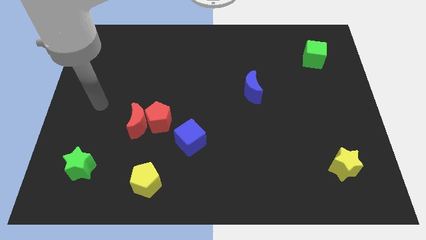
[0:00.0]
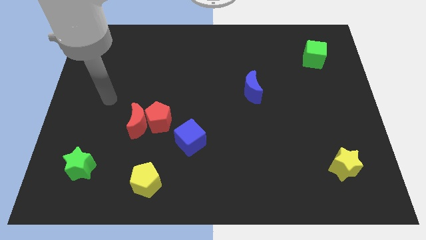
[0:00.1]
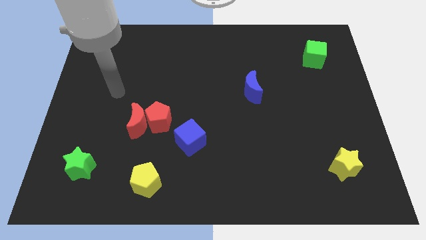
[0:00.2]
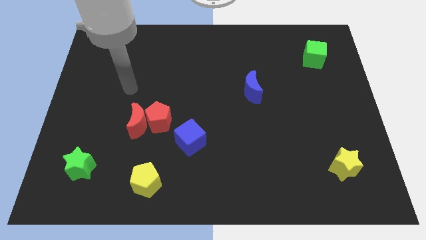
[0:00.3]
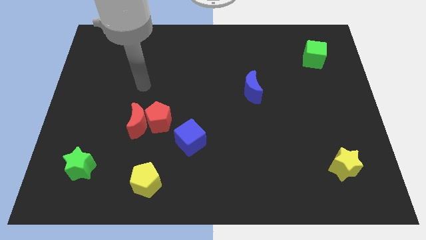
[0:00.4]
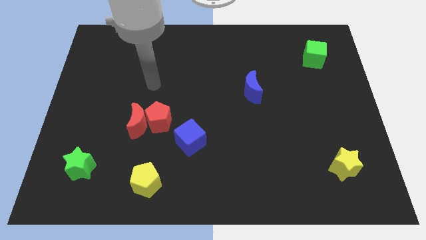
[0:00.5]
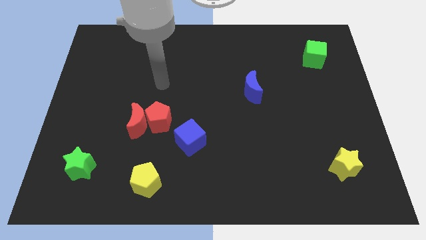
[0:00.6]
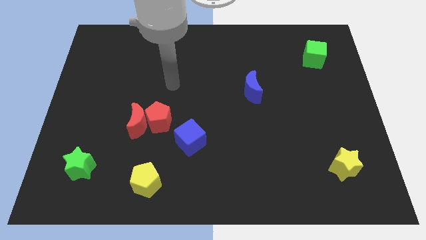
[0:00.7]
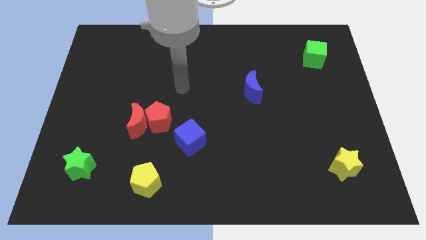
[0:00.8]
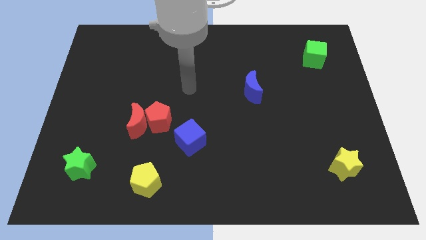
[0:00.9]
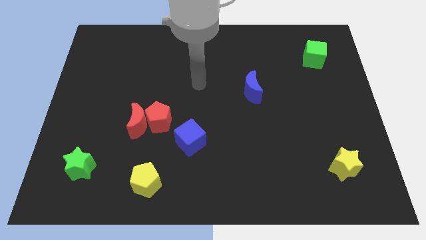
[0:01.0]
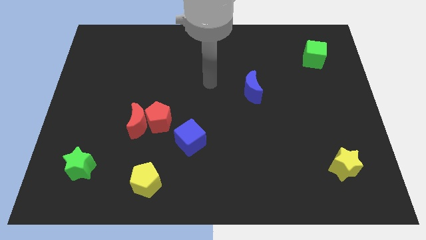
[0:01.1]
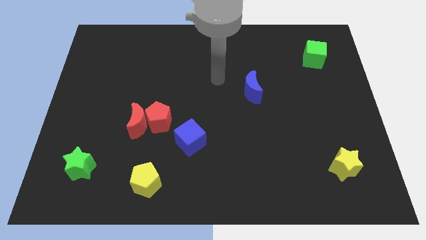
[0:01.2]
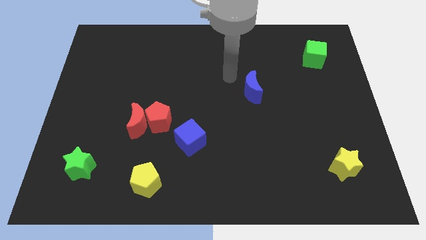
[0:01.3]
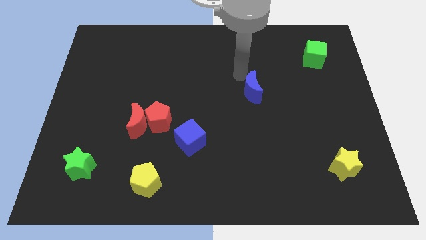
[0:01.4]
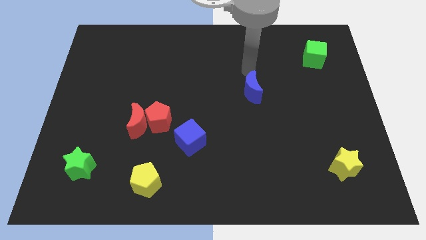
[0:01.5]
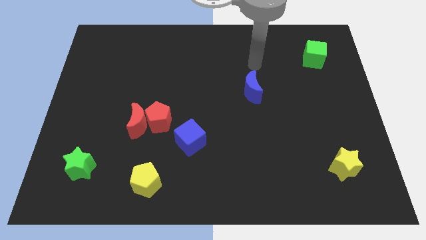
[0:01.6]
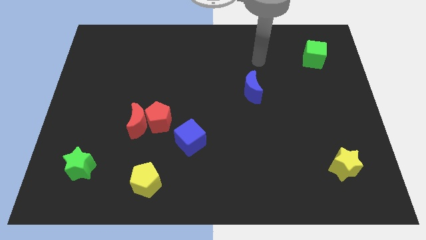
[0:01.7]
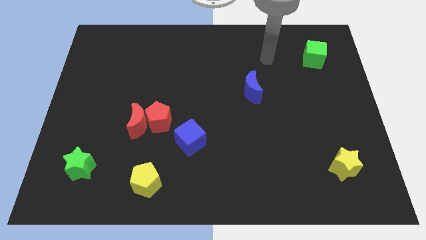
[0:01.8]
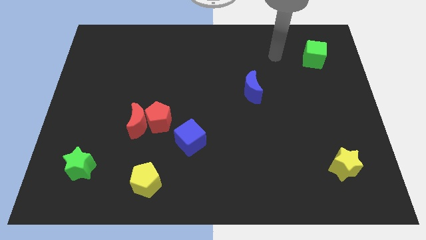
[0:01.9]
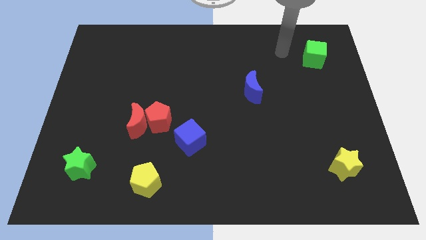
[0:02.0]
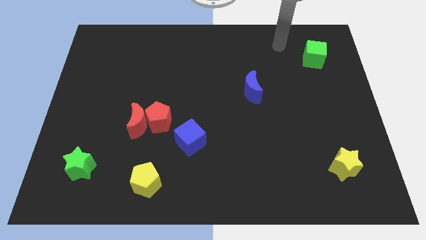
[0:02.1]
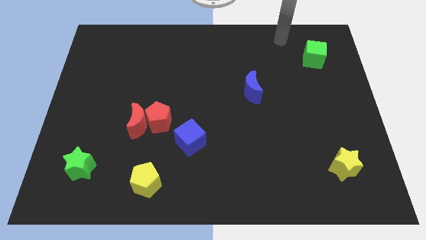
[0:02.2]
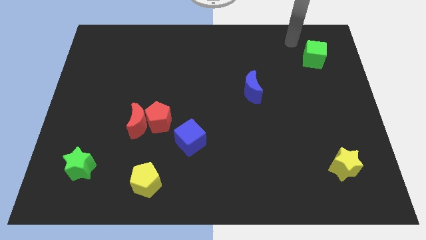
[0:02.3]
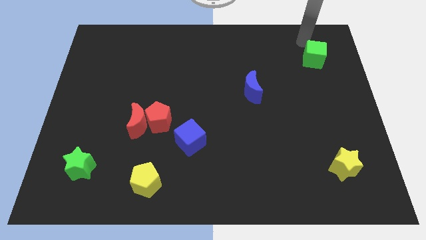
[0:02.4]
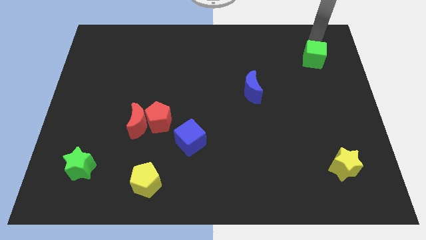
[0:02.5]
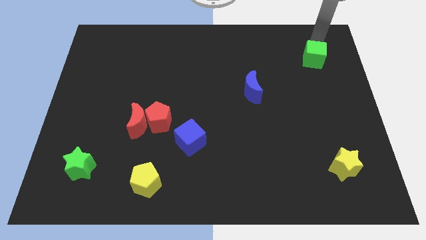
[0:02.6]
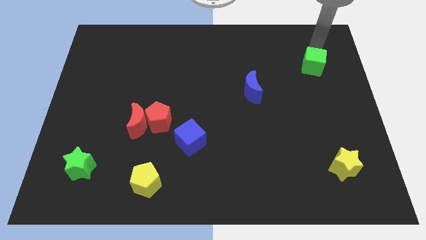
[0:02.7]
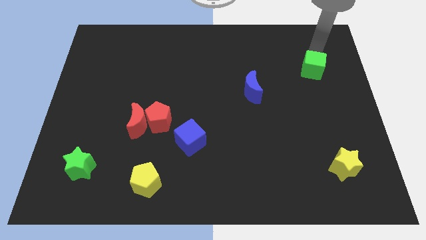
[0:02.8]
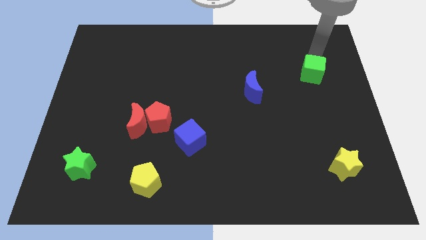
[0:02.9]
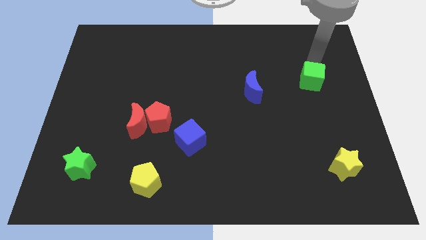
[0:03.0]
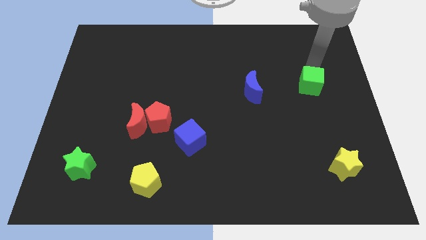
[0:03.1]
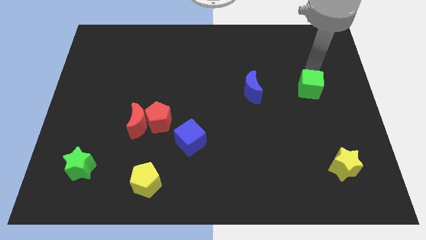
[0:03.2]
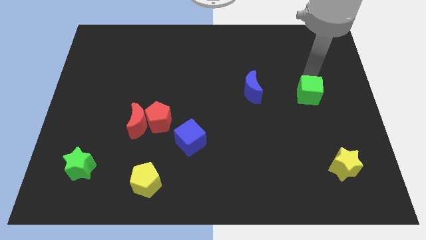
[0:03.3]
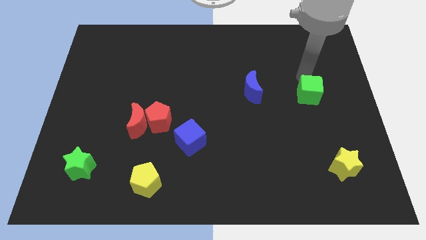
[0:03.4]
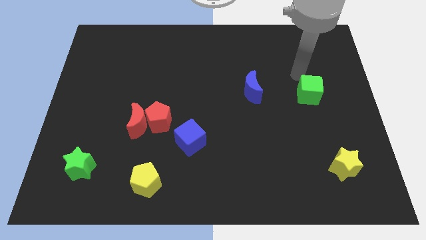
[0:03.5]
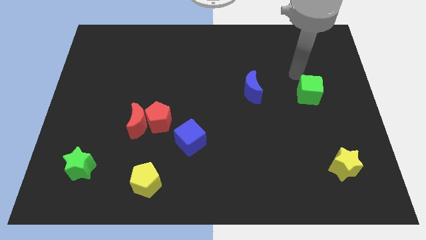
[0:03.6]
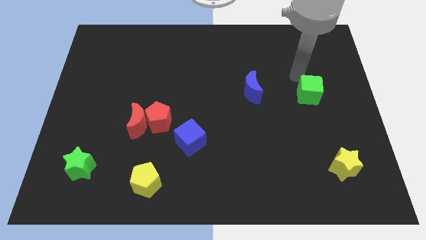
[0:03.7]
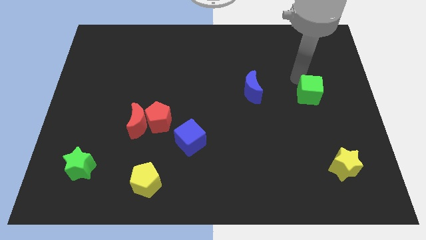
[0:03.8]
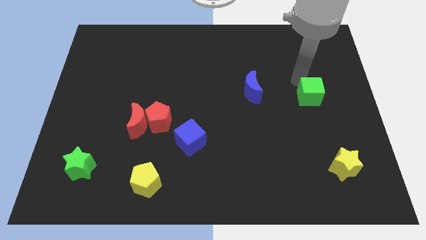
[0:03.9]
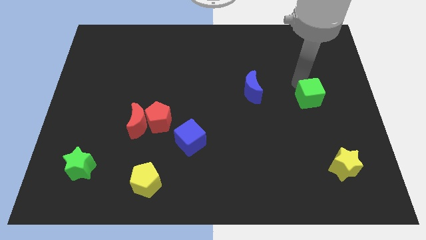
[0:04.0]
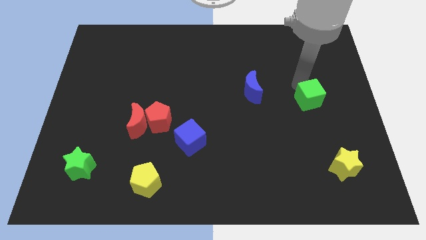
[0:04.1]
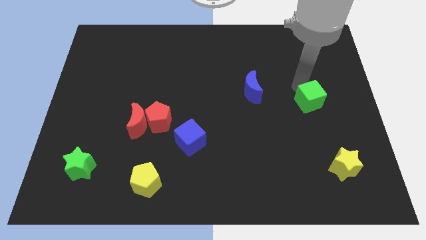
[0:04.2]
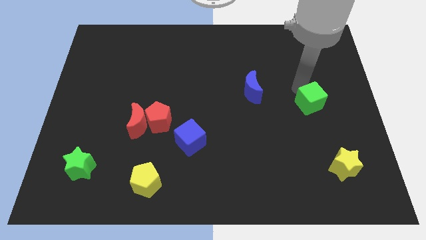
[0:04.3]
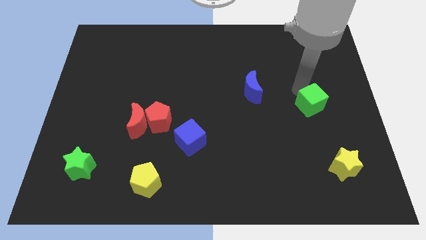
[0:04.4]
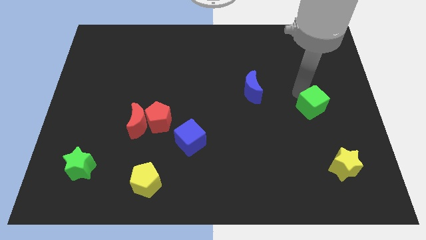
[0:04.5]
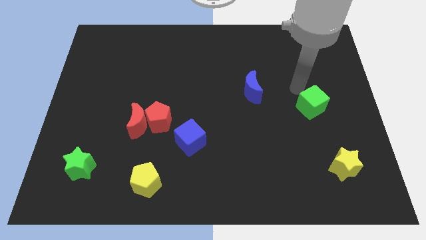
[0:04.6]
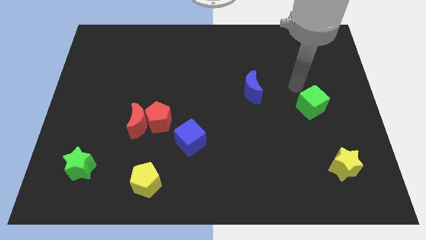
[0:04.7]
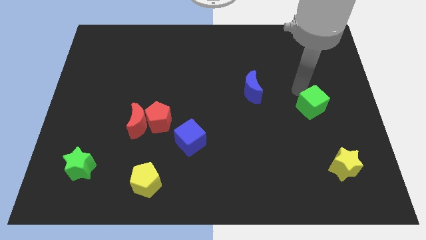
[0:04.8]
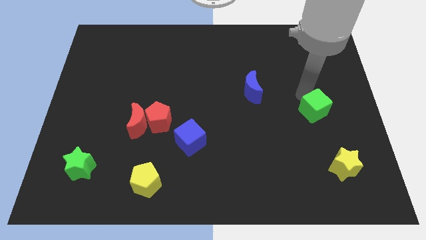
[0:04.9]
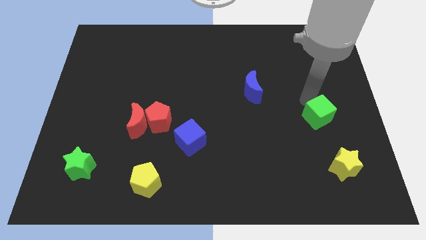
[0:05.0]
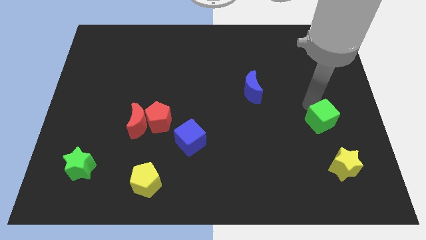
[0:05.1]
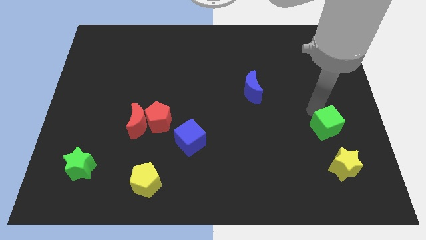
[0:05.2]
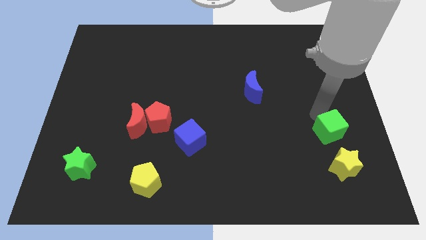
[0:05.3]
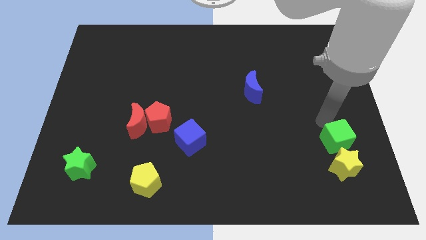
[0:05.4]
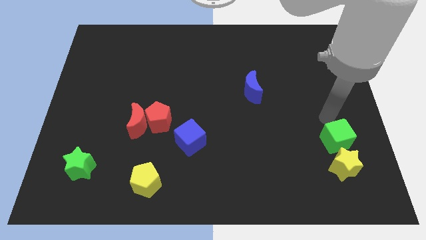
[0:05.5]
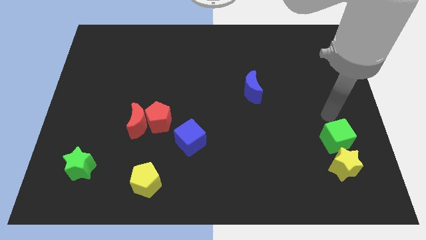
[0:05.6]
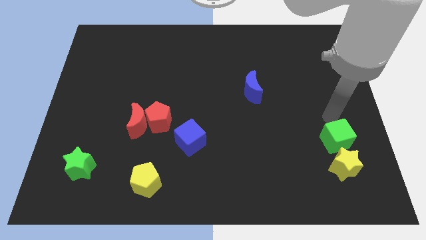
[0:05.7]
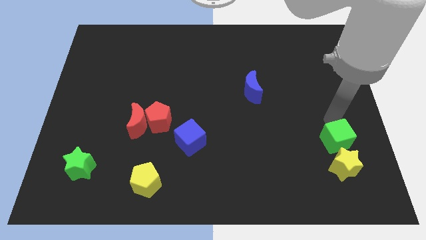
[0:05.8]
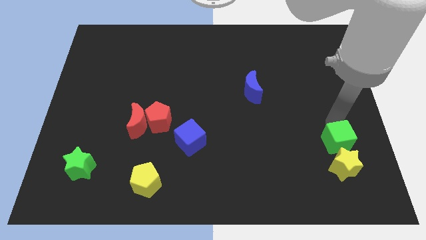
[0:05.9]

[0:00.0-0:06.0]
move the green cube next to the yellow star

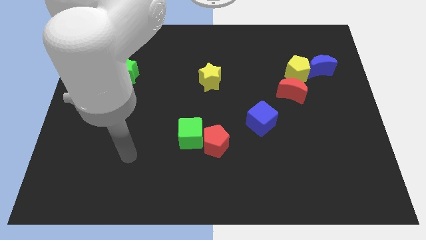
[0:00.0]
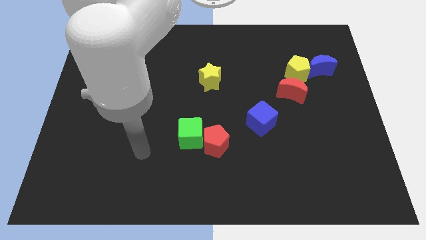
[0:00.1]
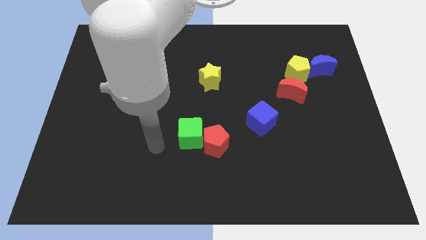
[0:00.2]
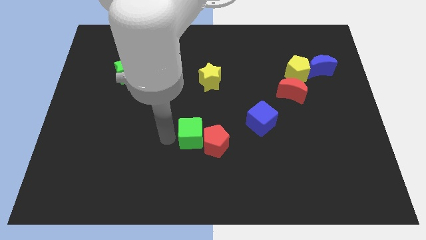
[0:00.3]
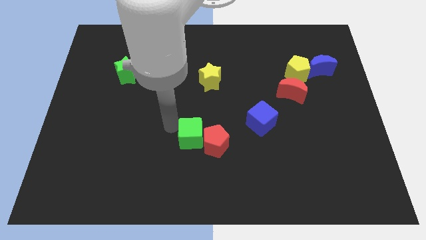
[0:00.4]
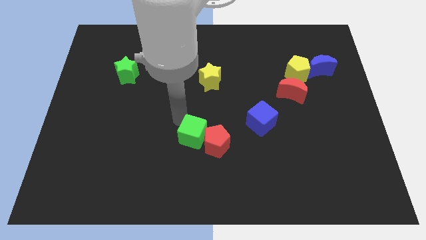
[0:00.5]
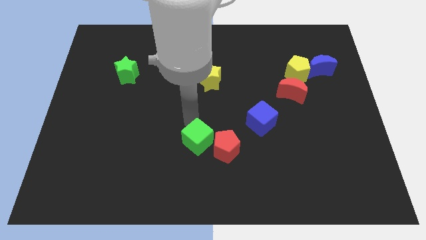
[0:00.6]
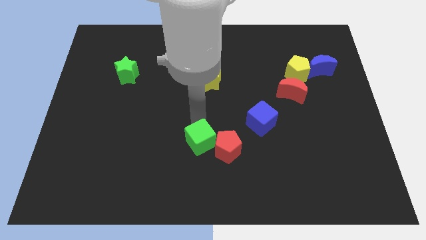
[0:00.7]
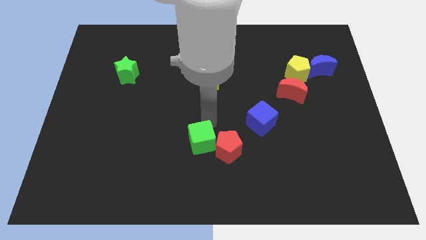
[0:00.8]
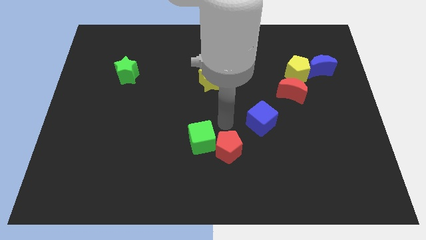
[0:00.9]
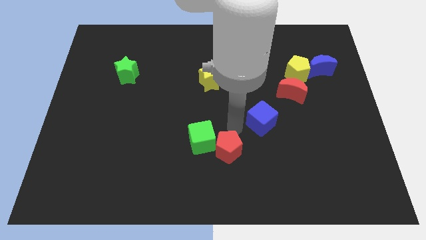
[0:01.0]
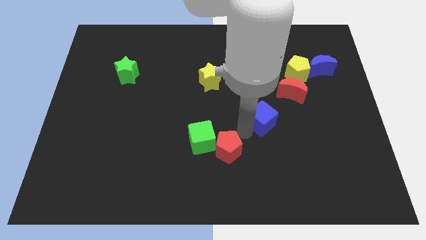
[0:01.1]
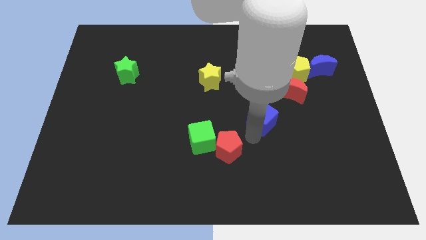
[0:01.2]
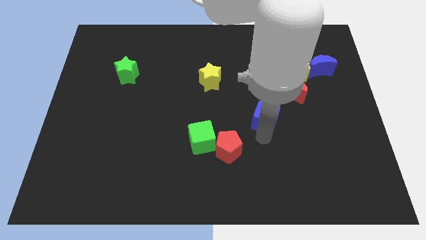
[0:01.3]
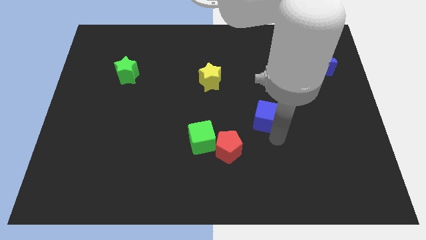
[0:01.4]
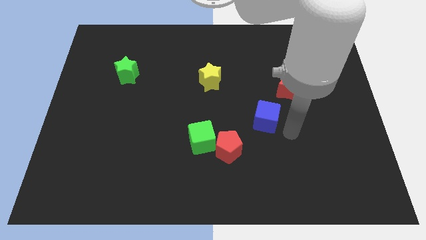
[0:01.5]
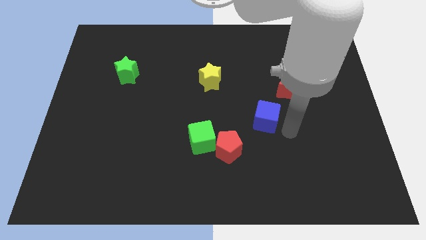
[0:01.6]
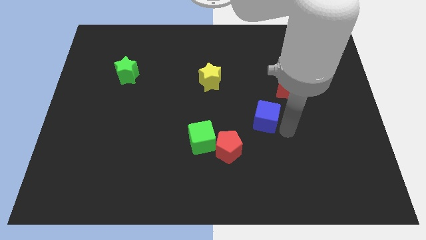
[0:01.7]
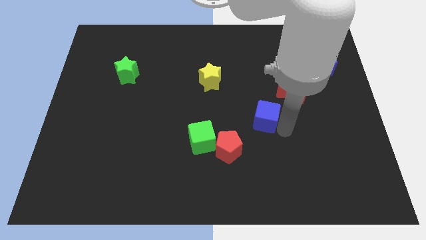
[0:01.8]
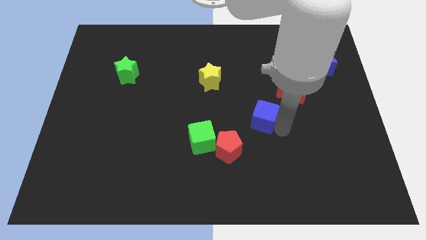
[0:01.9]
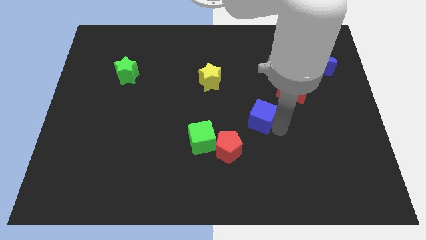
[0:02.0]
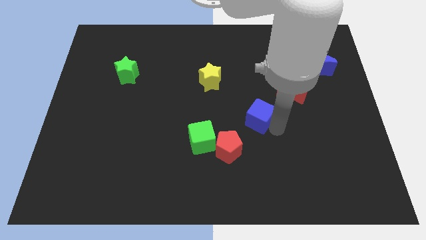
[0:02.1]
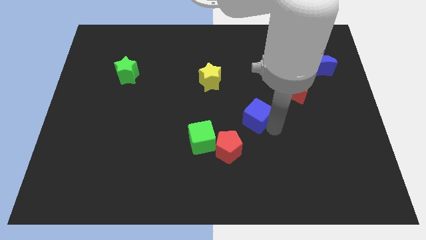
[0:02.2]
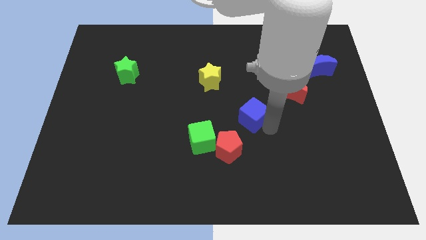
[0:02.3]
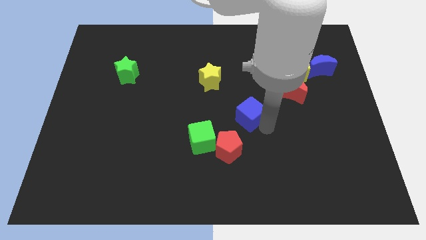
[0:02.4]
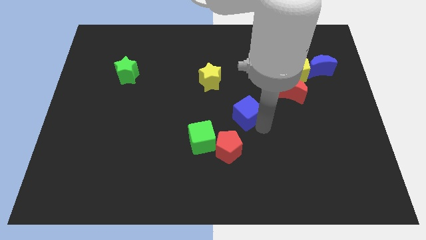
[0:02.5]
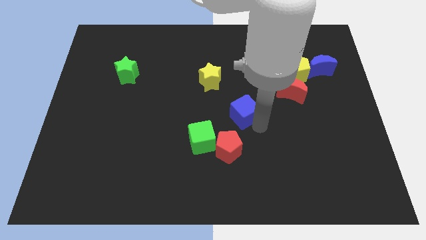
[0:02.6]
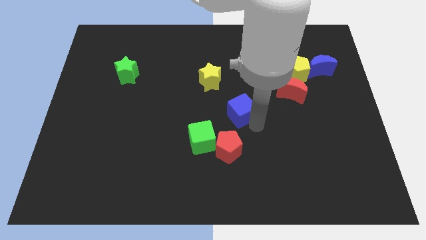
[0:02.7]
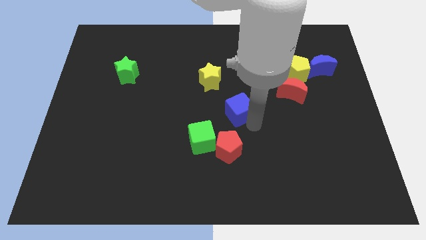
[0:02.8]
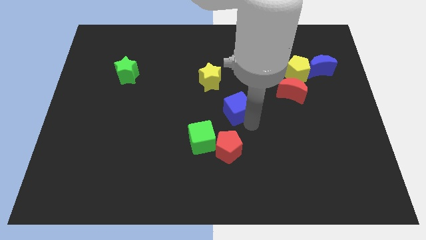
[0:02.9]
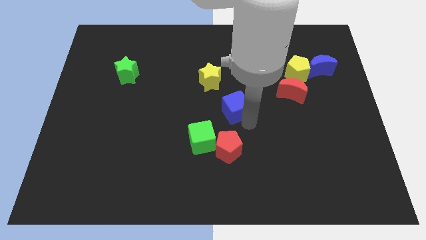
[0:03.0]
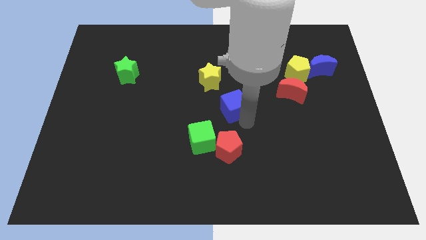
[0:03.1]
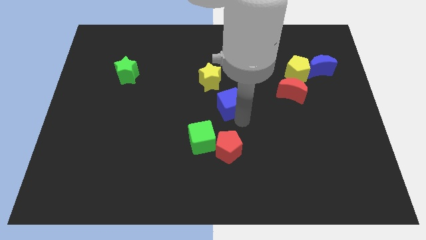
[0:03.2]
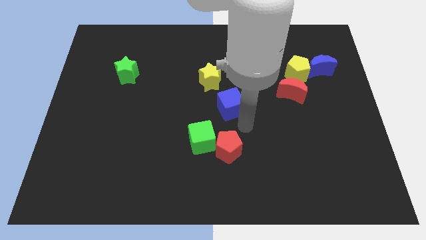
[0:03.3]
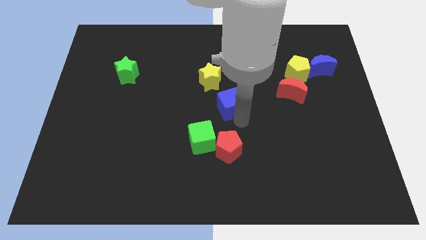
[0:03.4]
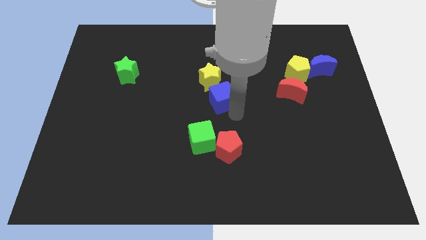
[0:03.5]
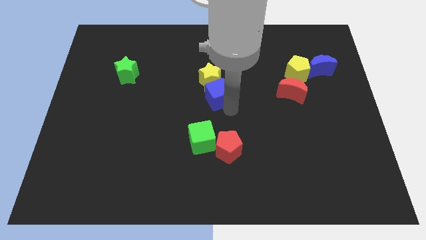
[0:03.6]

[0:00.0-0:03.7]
slide the blue cube next to the yellow star
